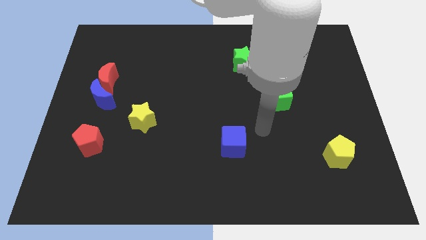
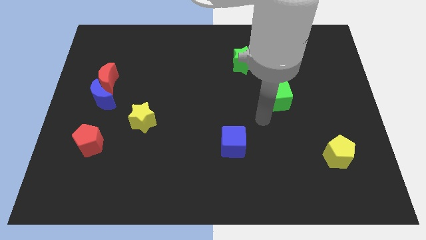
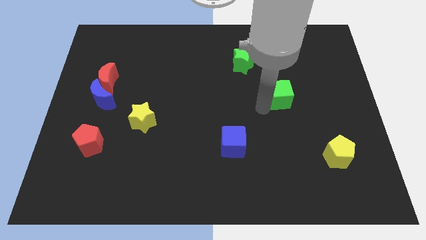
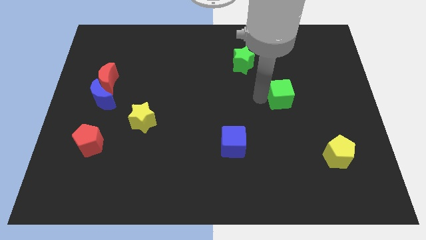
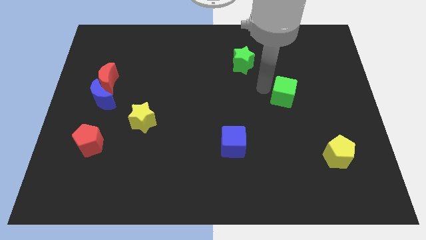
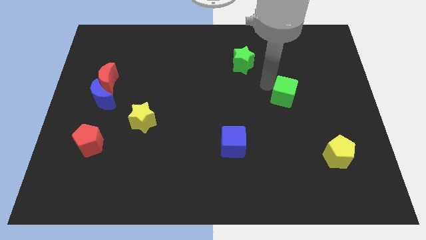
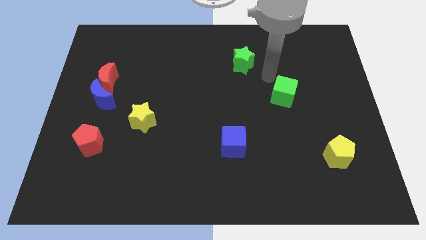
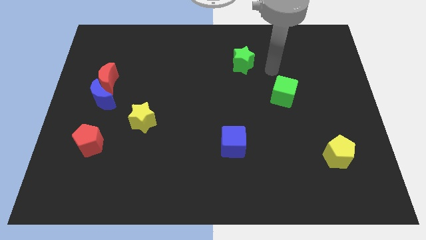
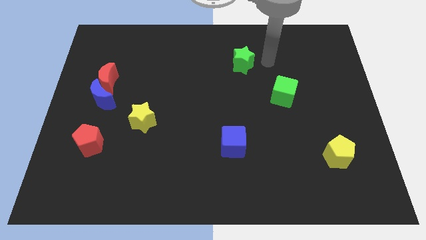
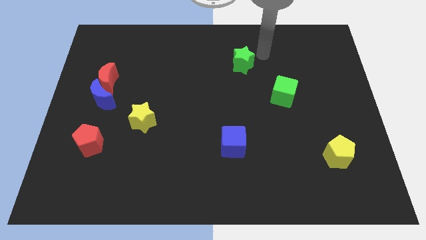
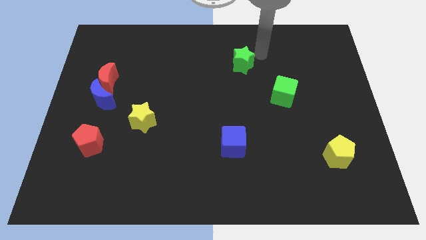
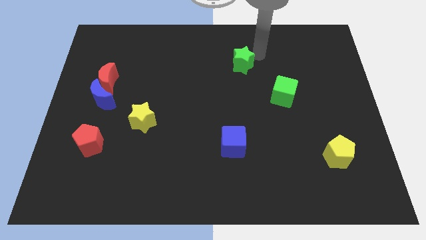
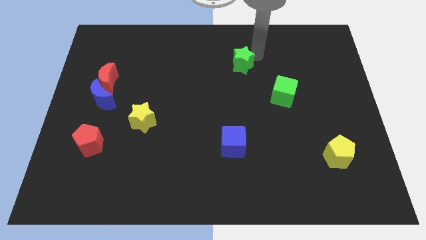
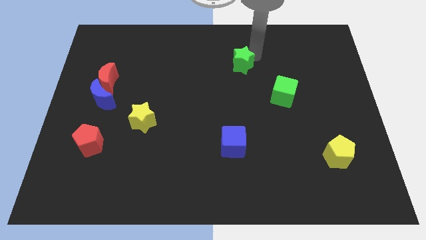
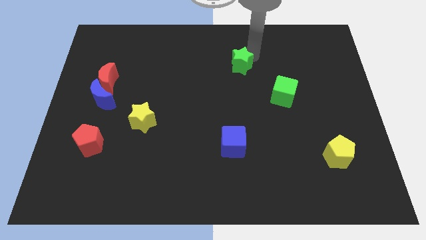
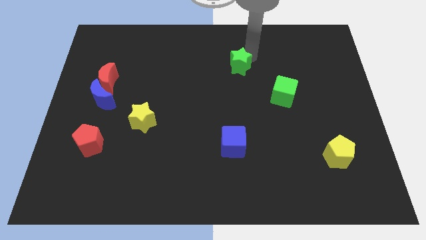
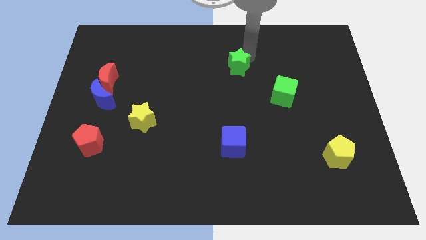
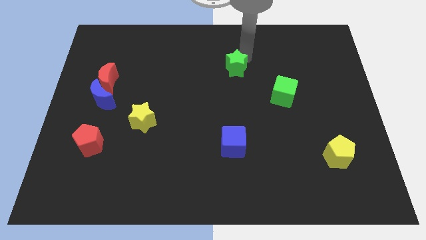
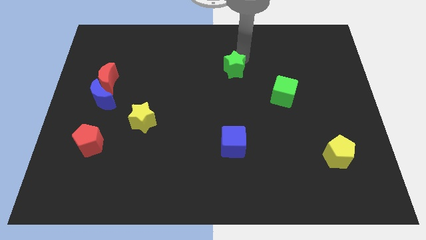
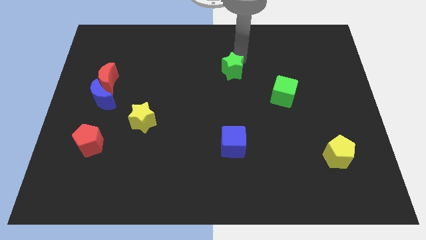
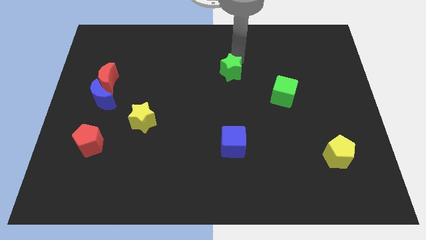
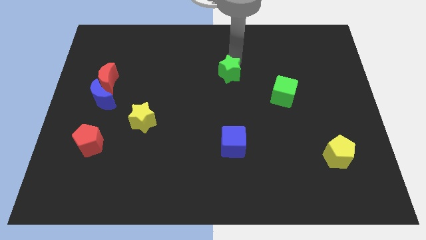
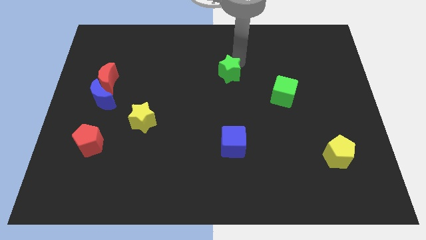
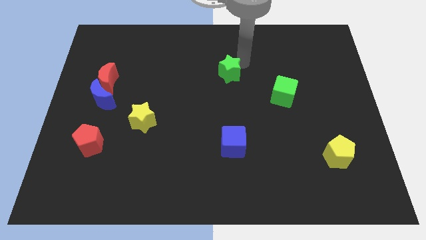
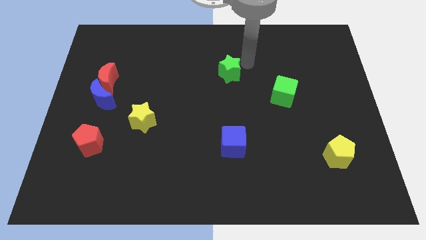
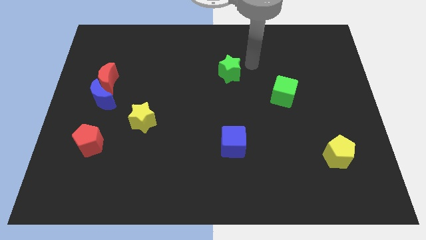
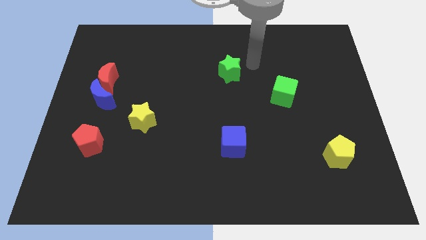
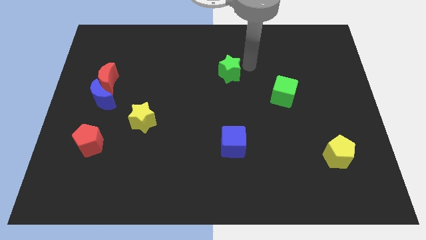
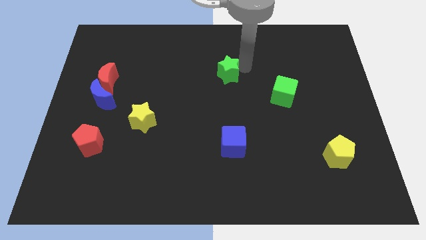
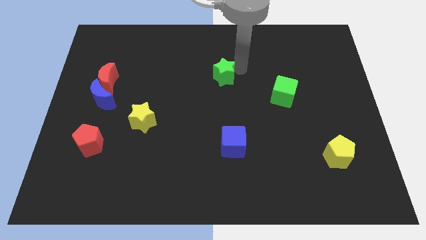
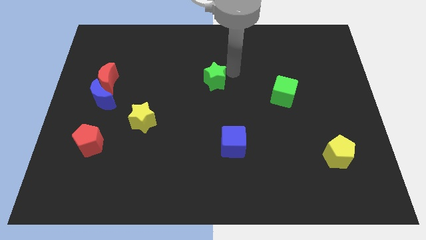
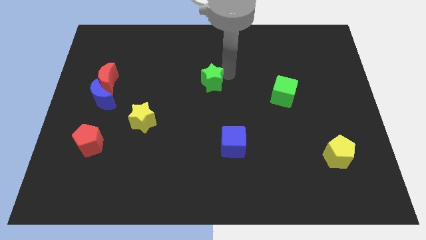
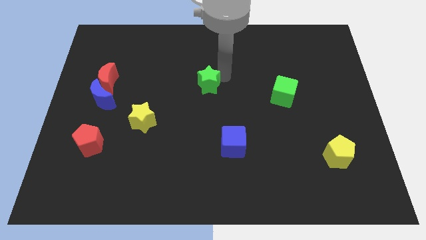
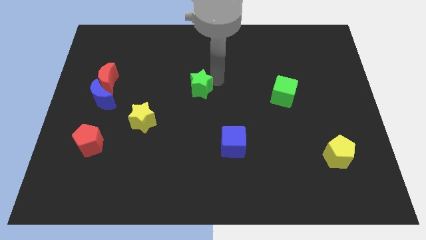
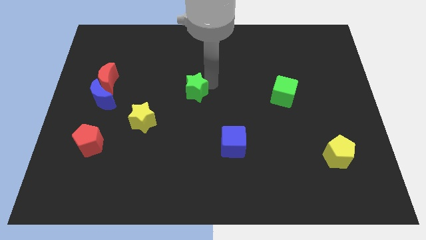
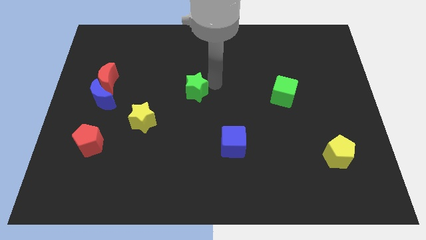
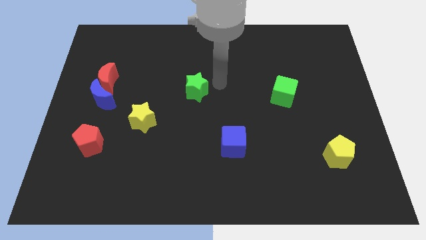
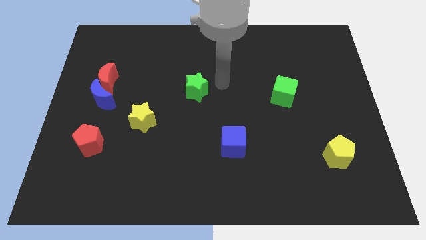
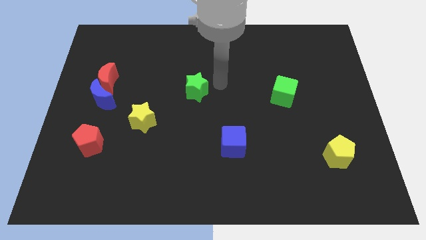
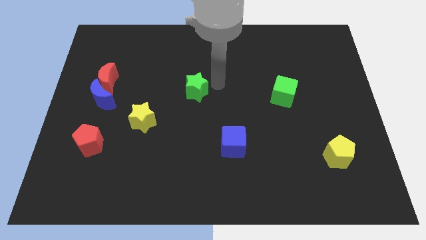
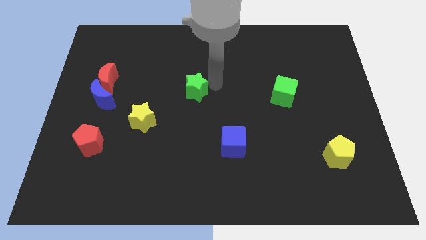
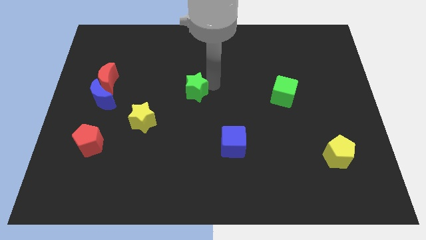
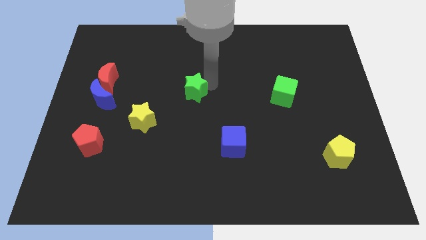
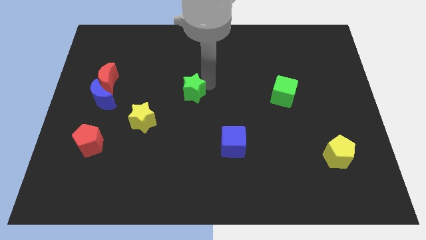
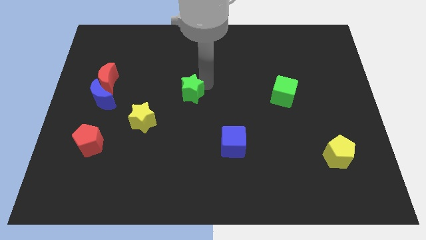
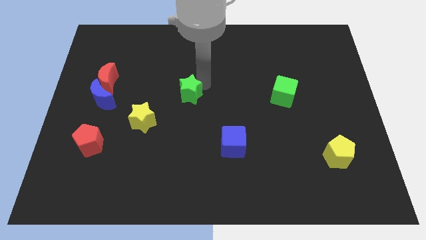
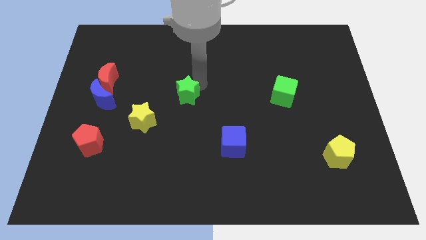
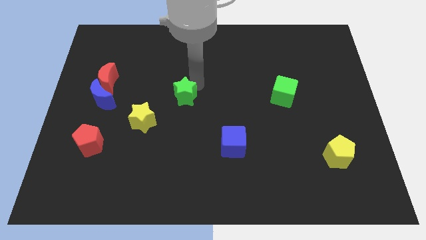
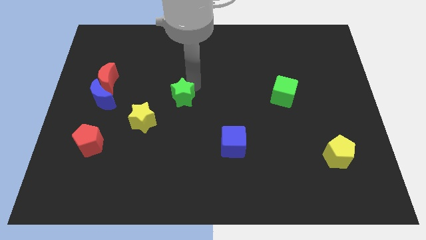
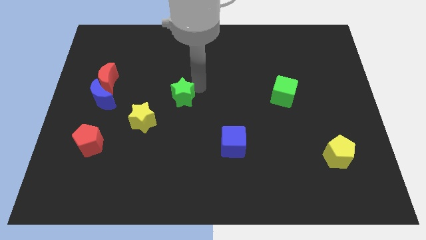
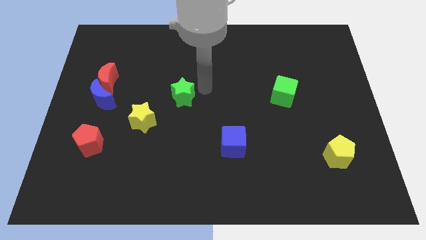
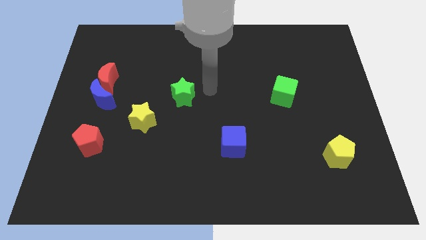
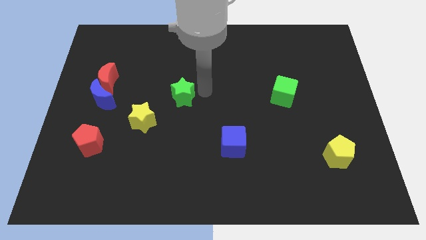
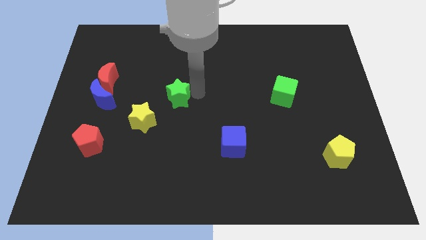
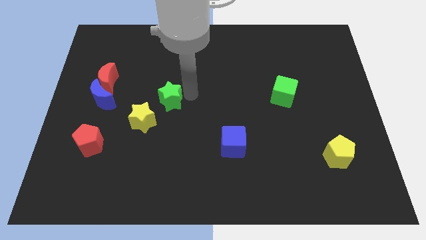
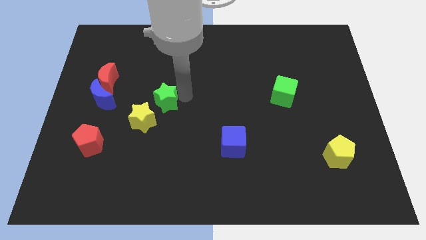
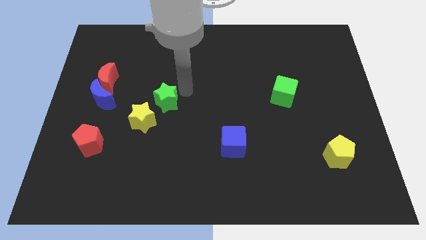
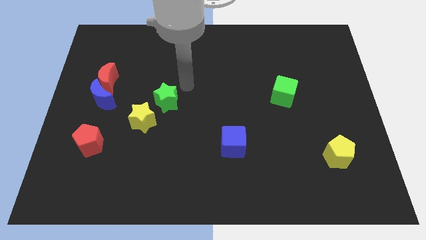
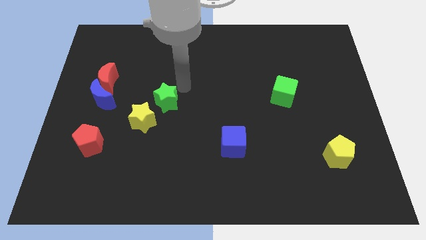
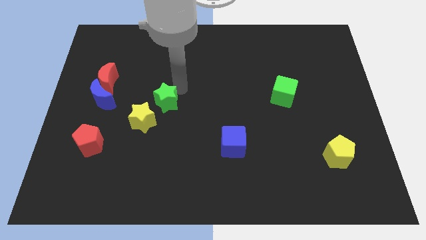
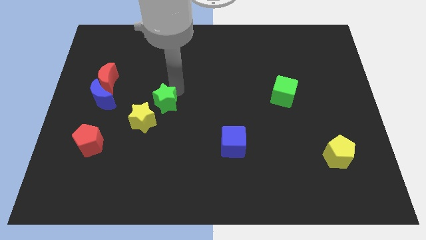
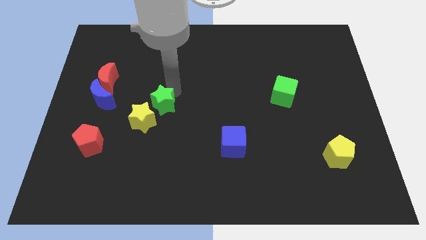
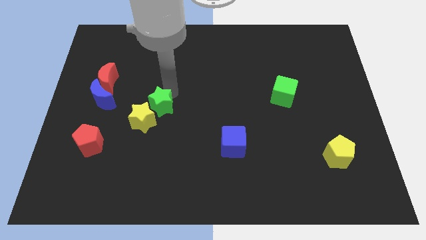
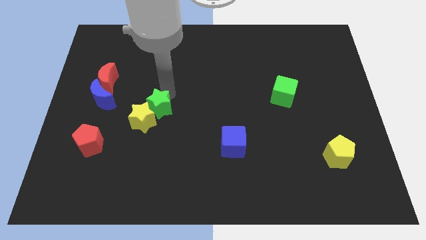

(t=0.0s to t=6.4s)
put the green star close to the yellow star
